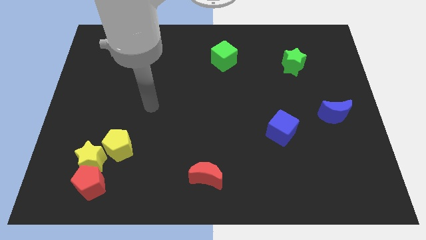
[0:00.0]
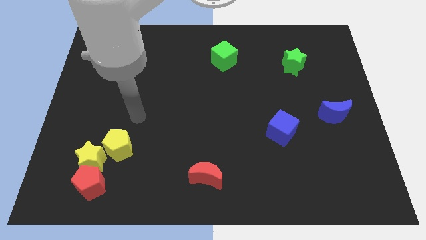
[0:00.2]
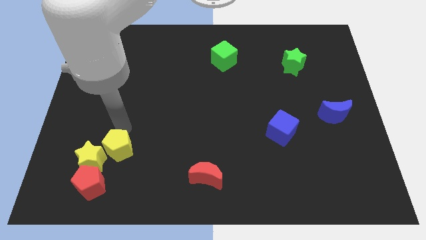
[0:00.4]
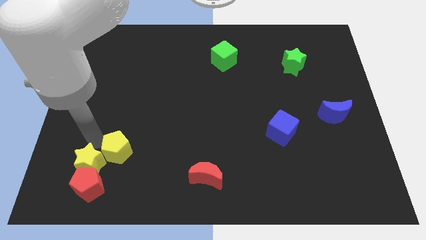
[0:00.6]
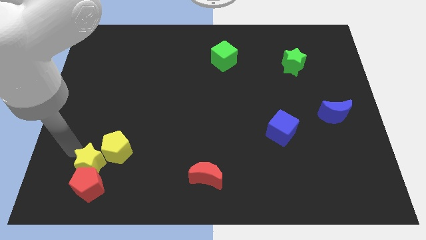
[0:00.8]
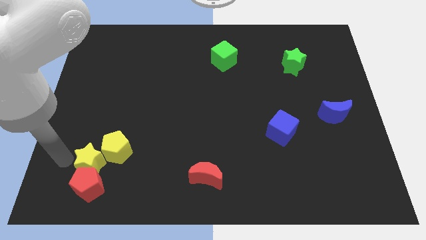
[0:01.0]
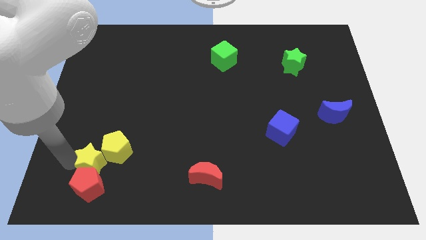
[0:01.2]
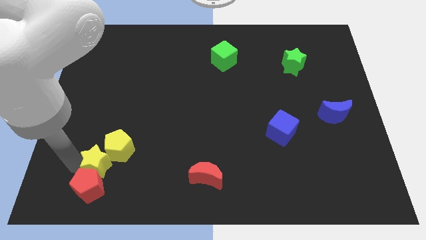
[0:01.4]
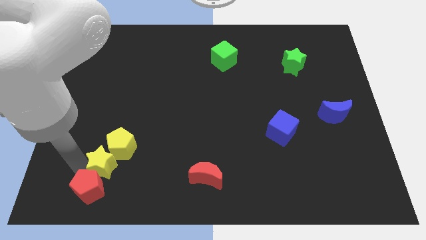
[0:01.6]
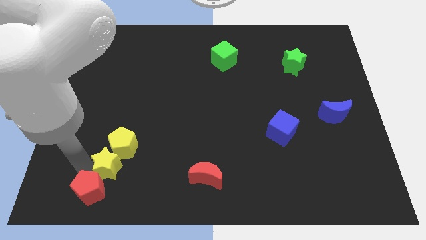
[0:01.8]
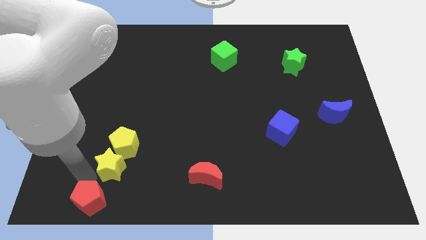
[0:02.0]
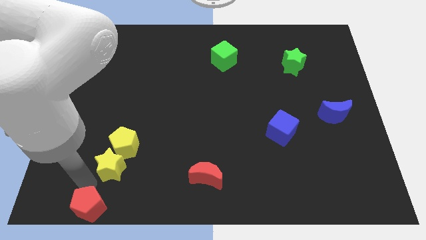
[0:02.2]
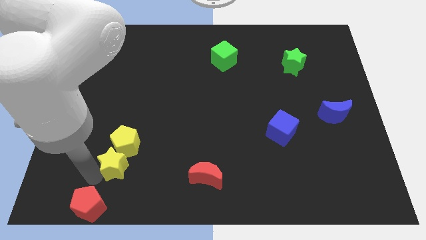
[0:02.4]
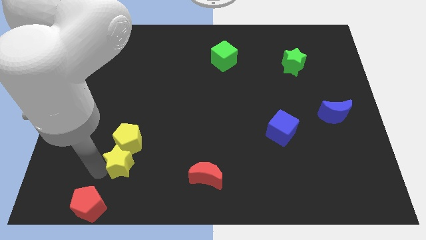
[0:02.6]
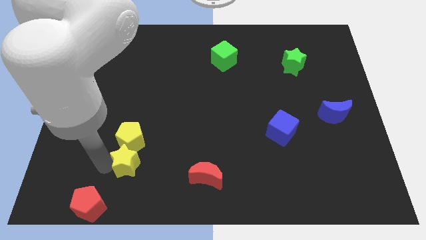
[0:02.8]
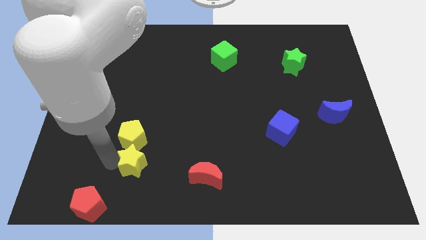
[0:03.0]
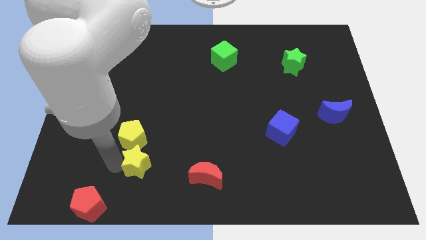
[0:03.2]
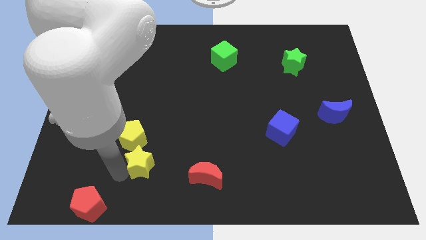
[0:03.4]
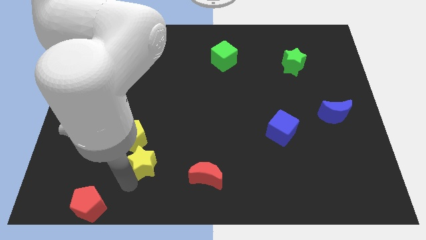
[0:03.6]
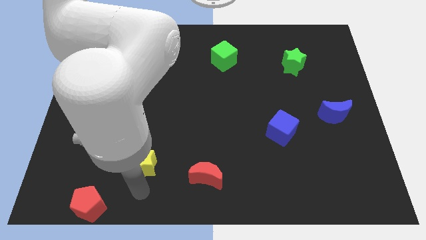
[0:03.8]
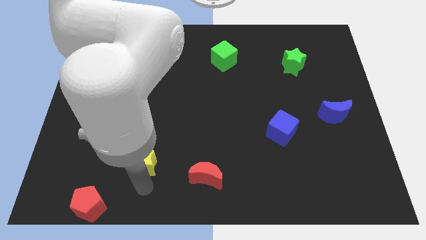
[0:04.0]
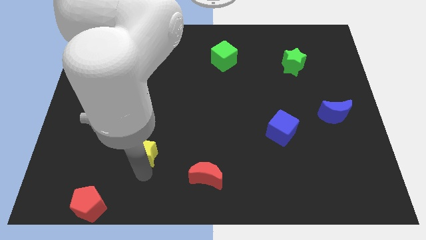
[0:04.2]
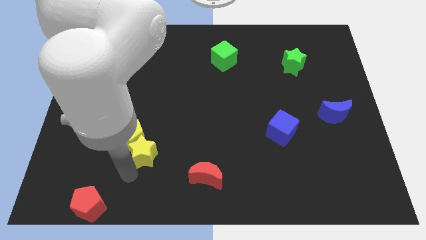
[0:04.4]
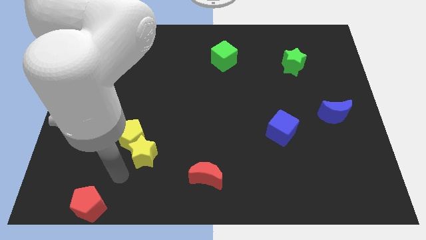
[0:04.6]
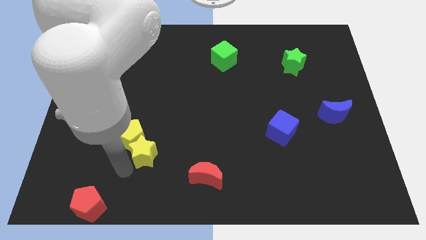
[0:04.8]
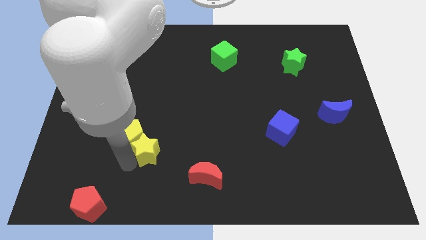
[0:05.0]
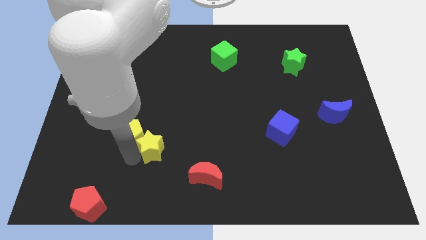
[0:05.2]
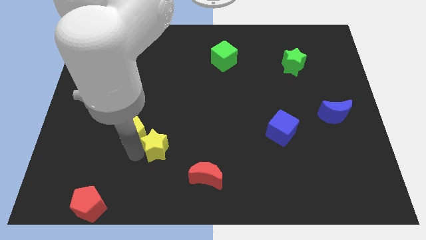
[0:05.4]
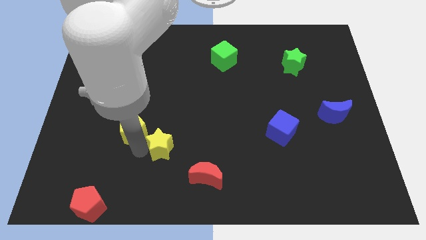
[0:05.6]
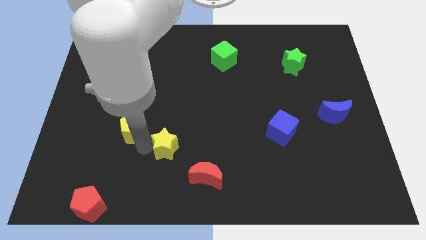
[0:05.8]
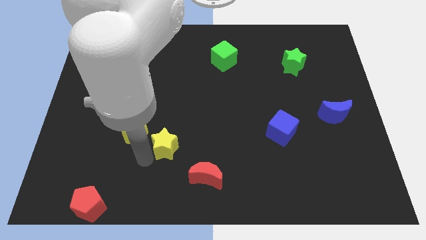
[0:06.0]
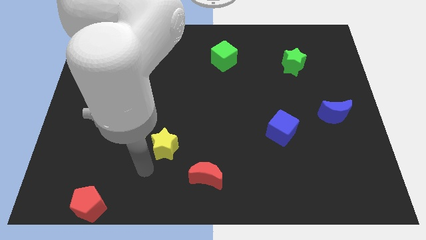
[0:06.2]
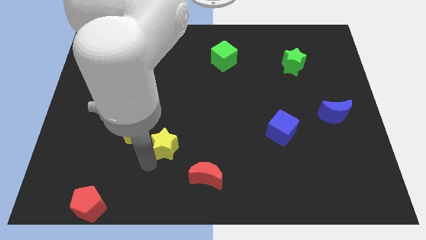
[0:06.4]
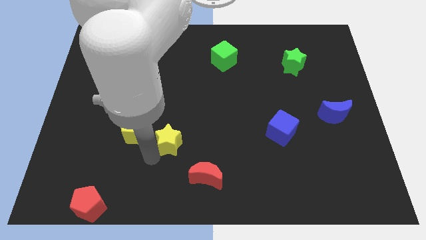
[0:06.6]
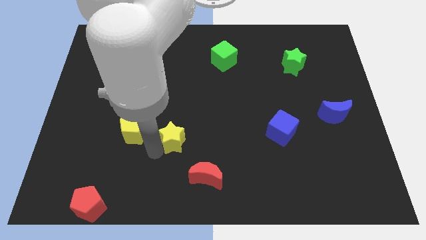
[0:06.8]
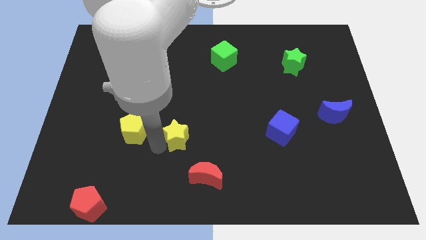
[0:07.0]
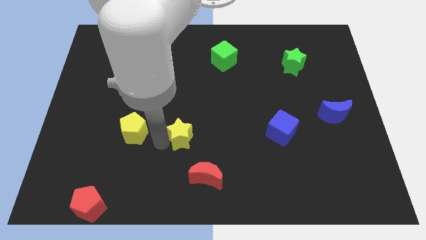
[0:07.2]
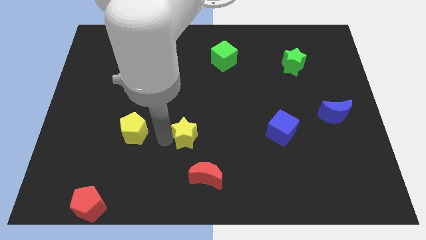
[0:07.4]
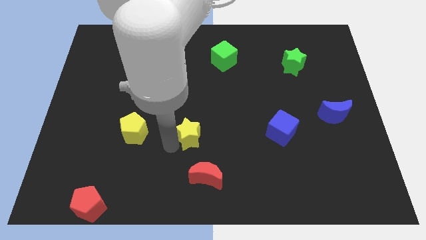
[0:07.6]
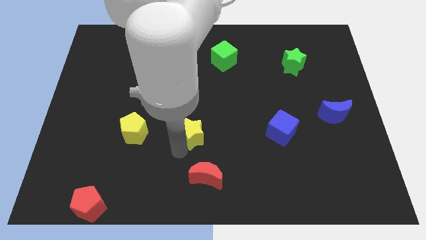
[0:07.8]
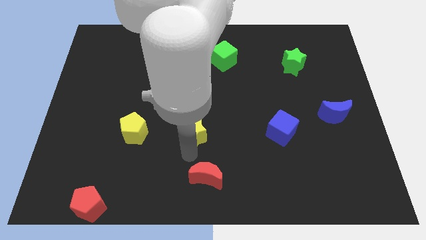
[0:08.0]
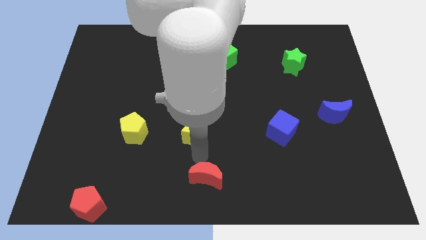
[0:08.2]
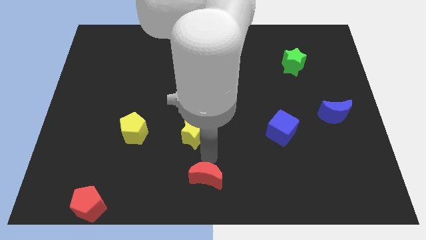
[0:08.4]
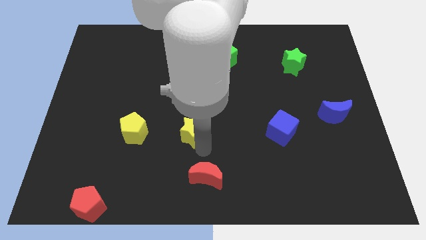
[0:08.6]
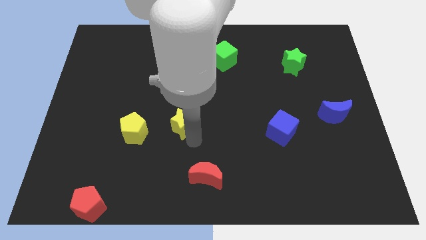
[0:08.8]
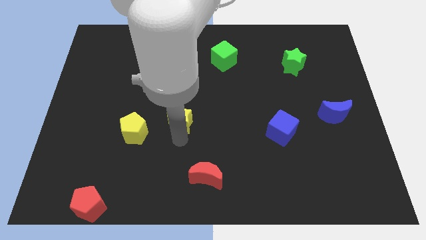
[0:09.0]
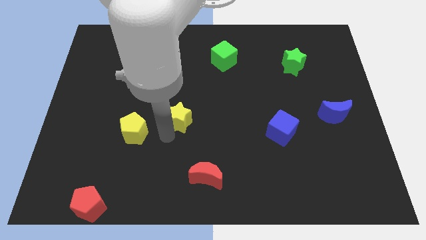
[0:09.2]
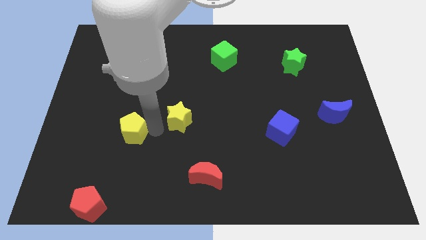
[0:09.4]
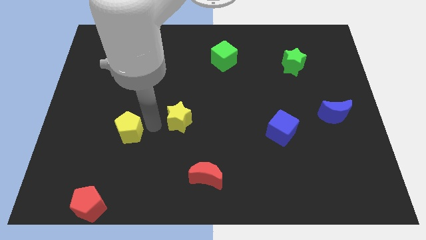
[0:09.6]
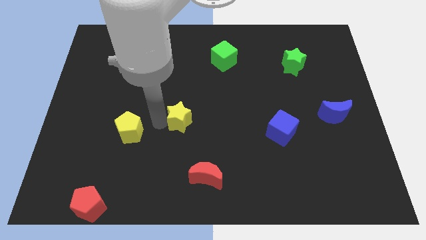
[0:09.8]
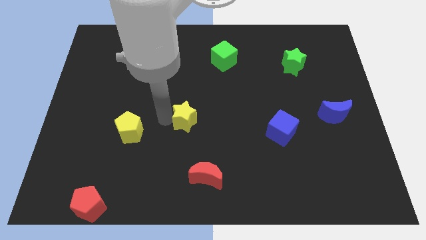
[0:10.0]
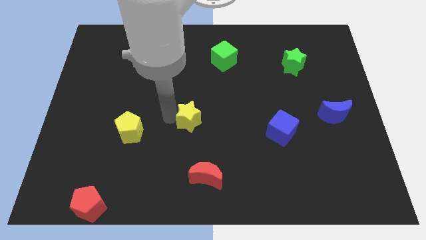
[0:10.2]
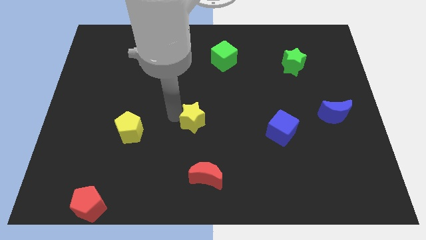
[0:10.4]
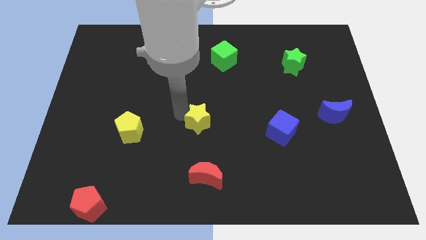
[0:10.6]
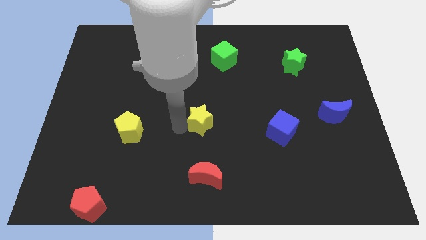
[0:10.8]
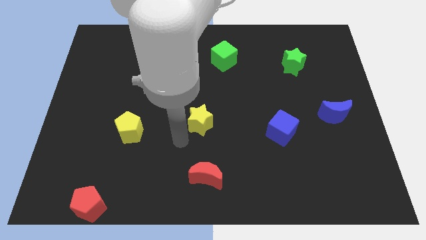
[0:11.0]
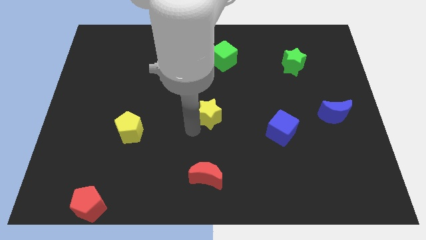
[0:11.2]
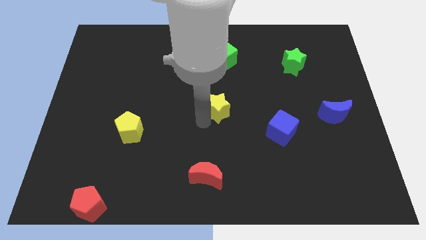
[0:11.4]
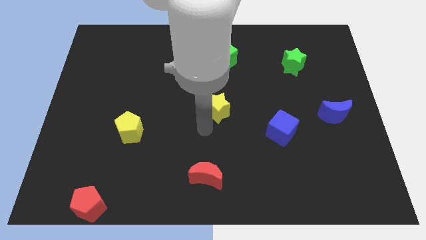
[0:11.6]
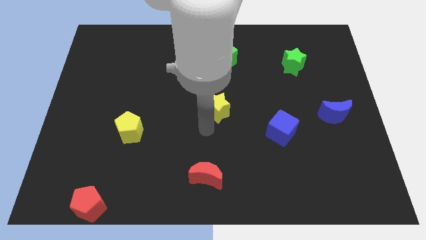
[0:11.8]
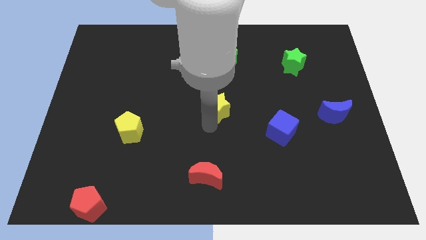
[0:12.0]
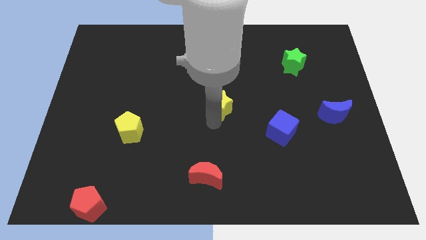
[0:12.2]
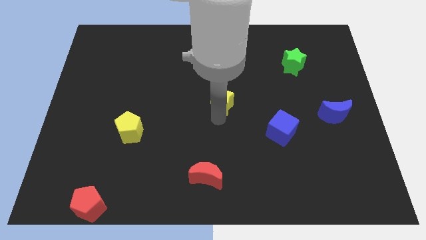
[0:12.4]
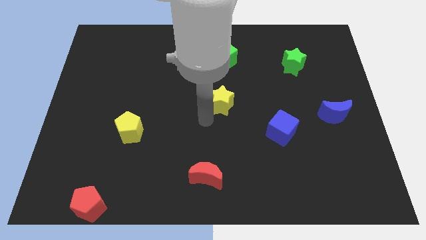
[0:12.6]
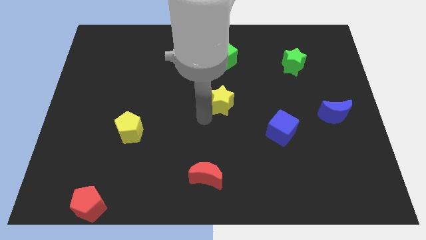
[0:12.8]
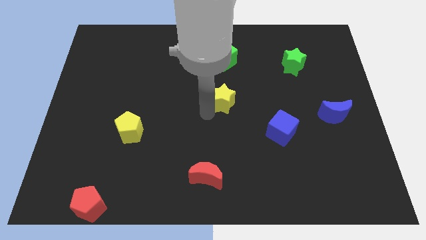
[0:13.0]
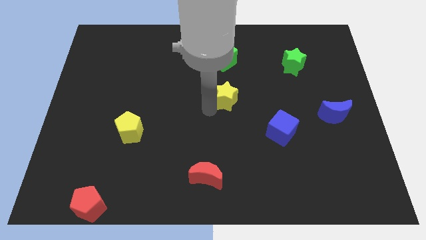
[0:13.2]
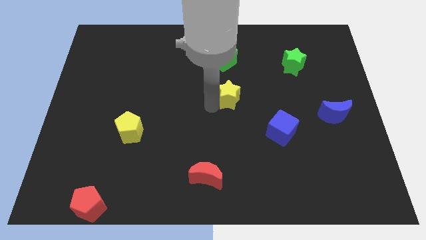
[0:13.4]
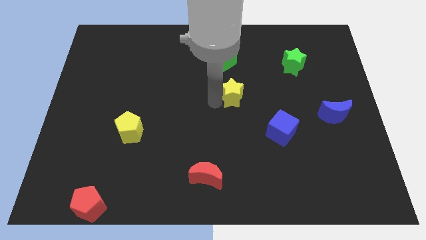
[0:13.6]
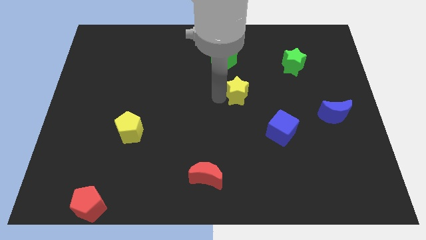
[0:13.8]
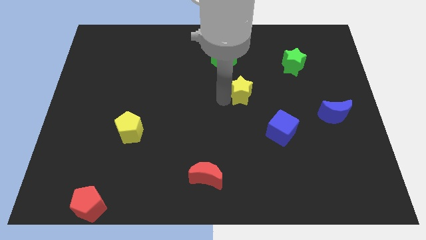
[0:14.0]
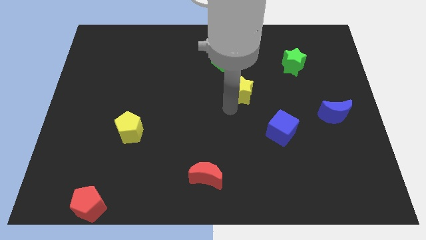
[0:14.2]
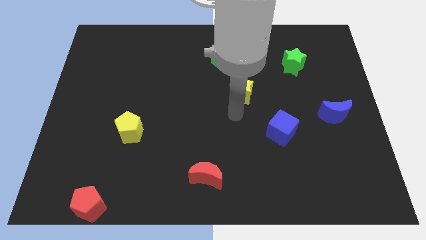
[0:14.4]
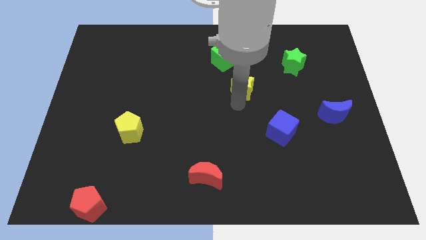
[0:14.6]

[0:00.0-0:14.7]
move the yellow star diagonally down and to the right of the green cube
